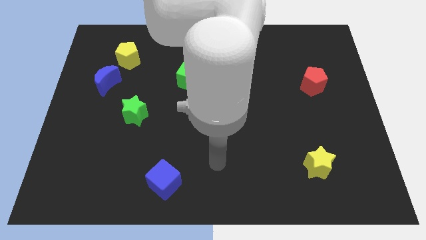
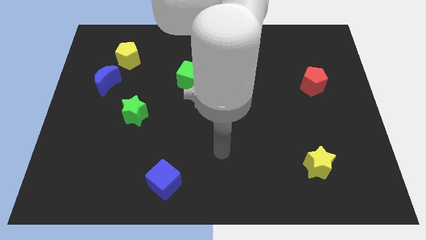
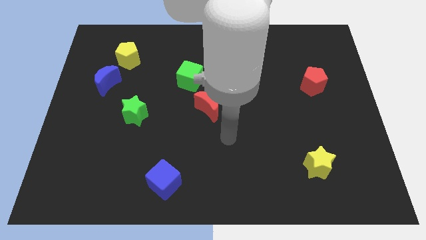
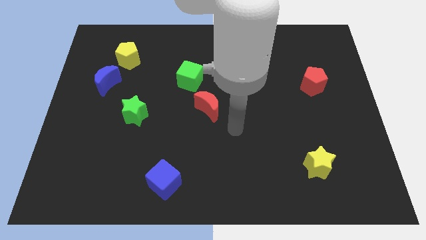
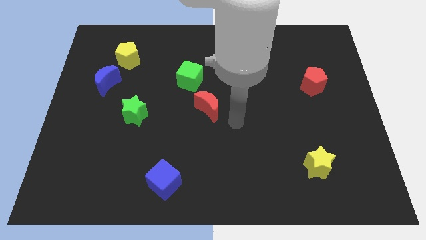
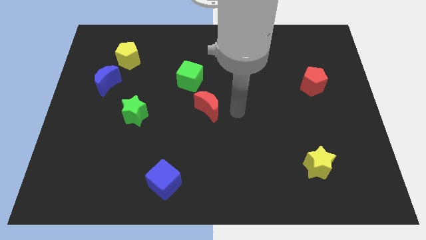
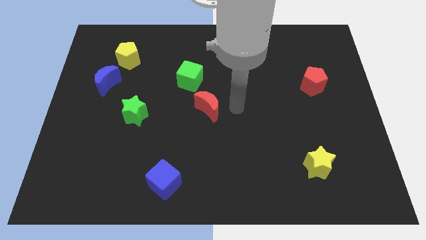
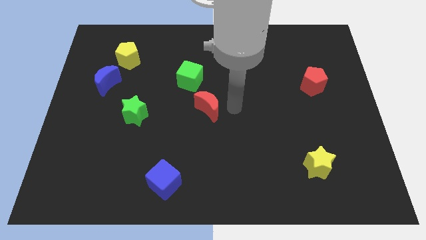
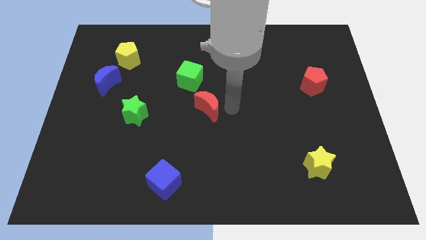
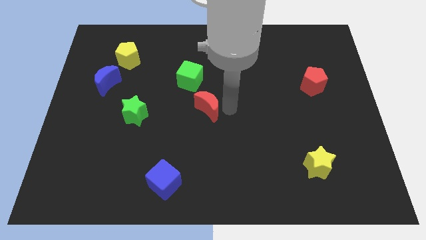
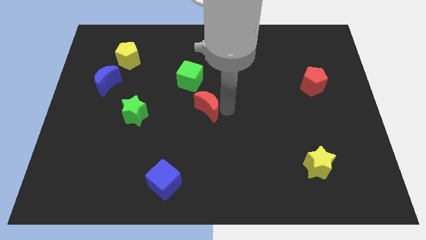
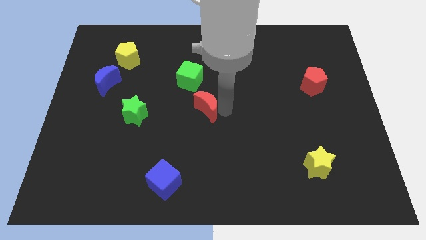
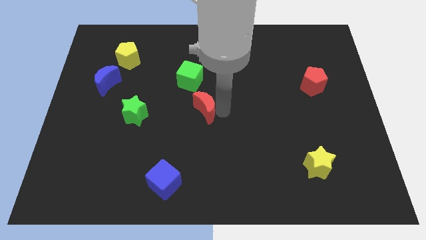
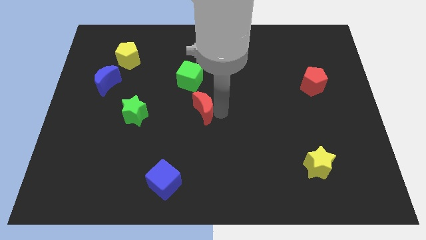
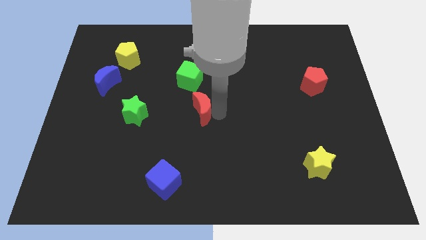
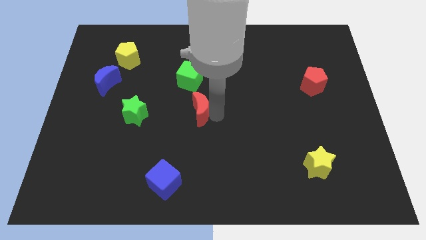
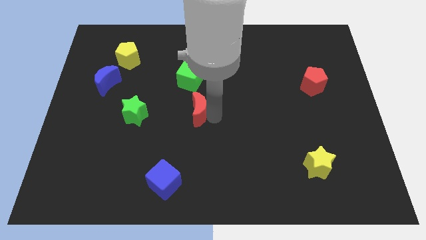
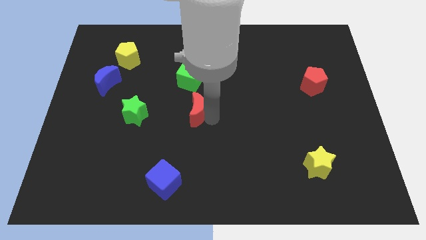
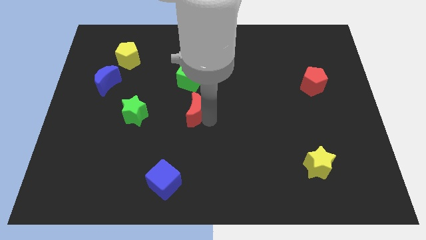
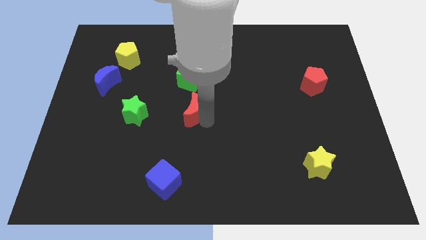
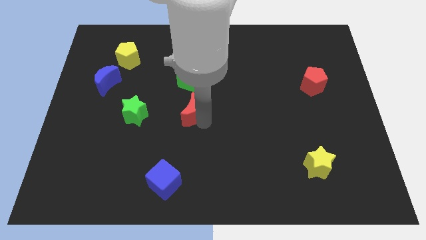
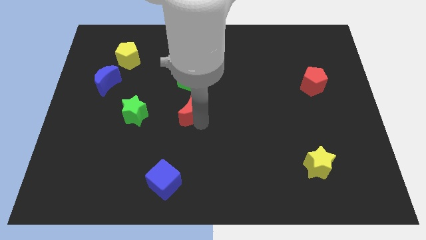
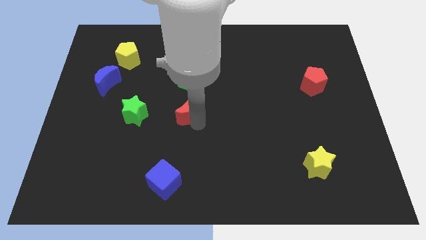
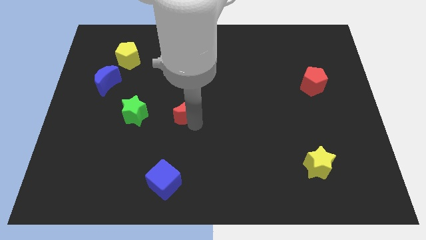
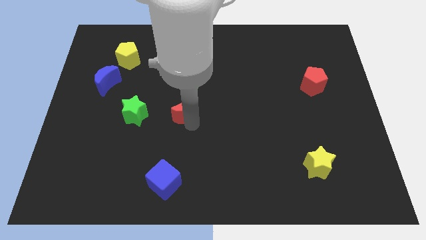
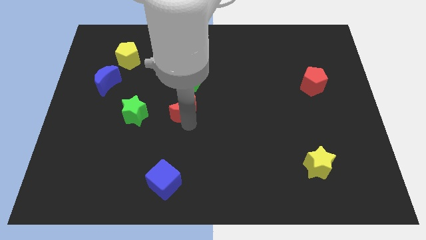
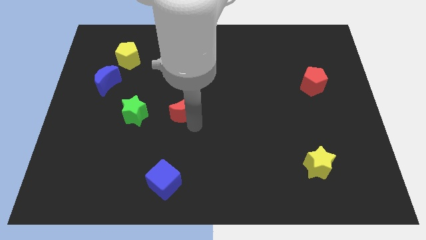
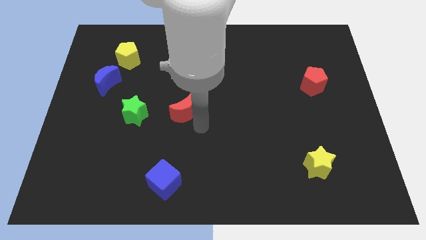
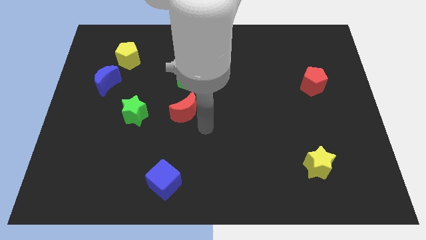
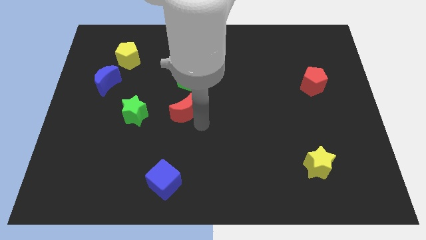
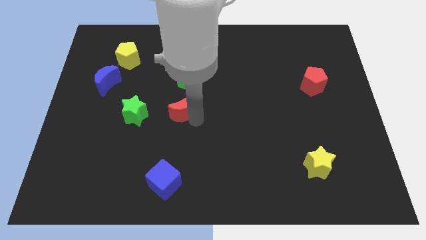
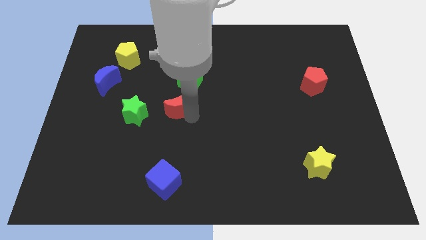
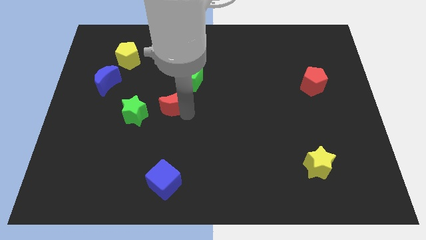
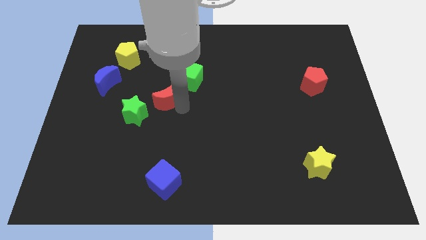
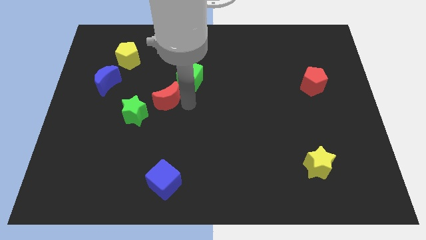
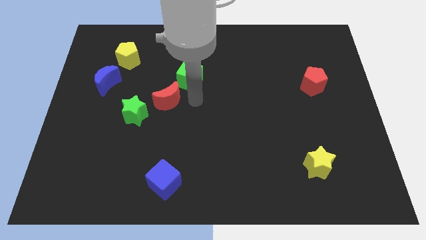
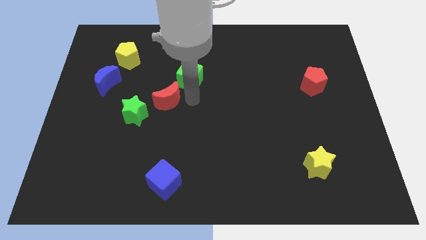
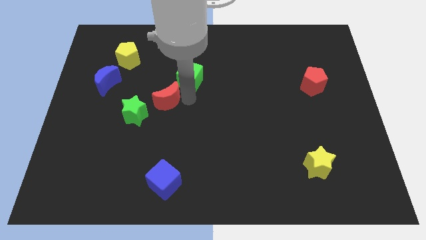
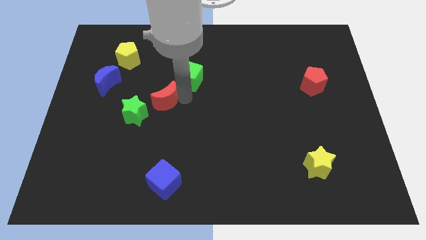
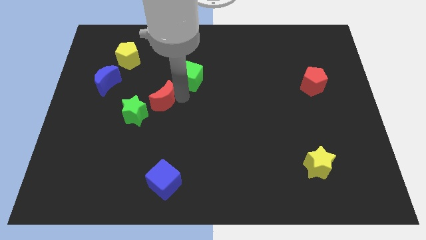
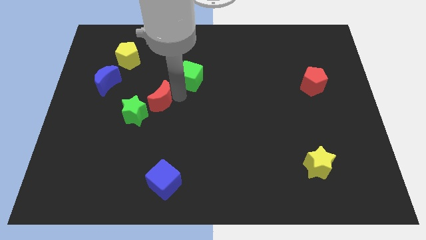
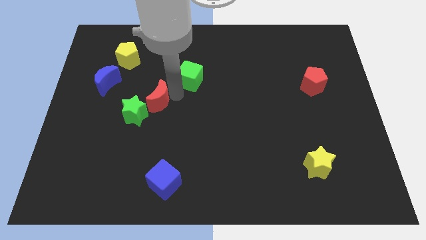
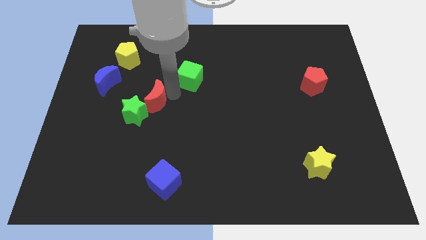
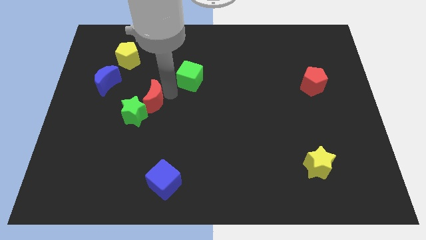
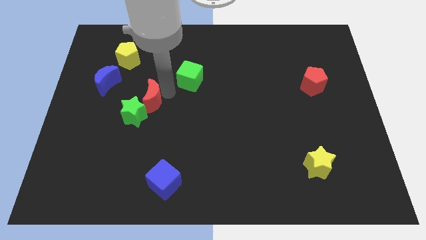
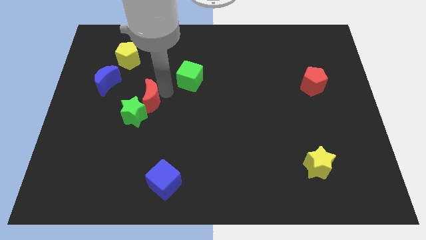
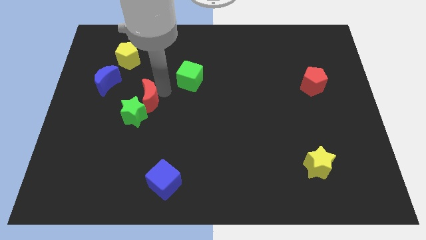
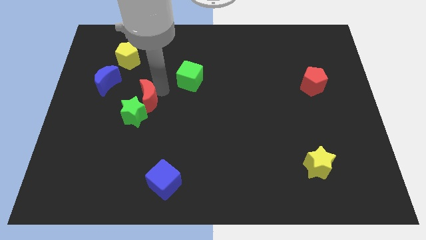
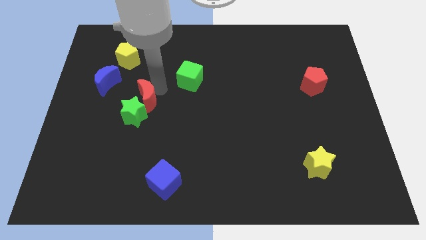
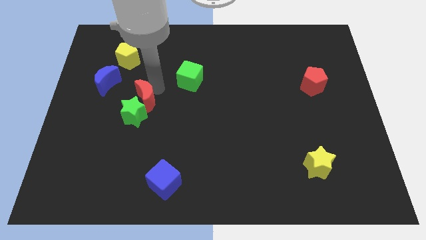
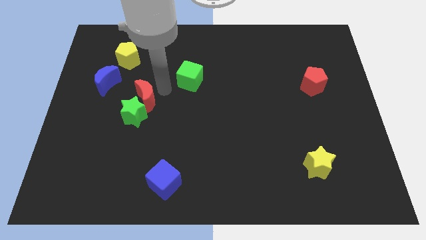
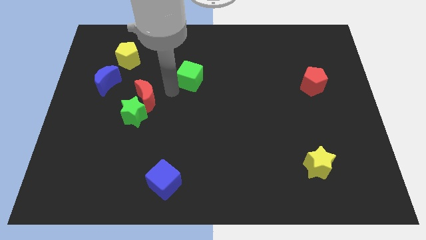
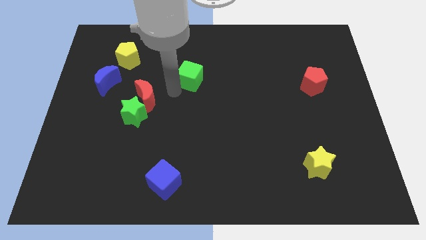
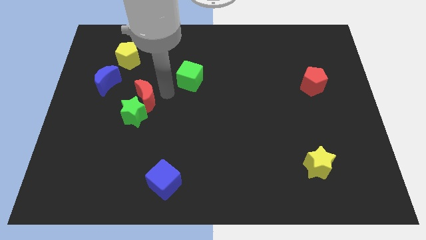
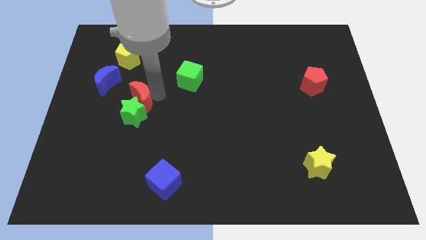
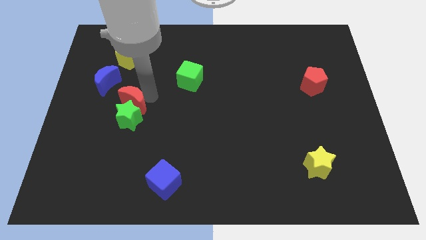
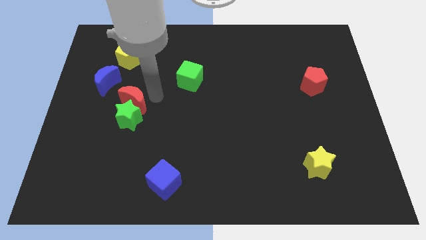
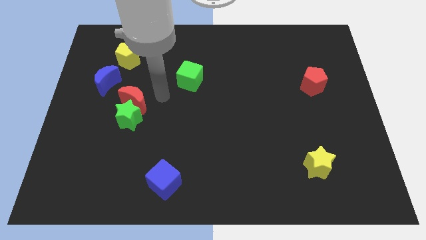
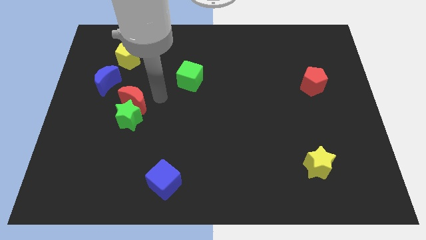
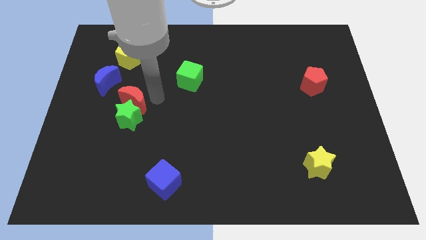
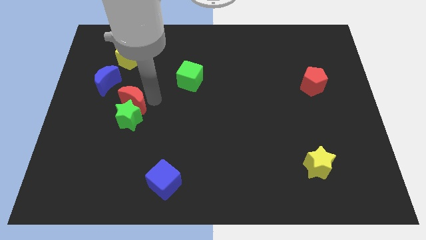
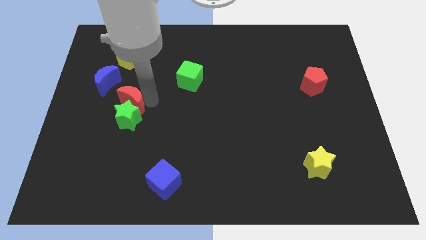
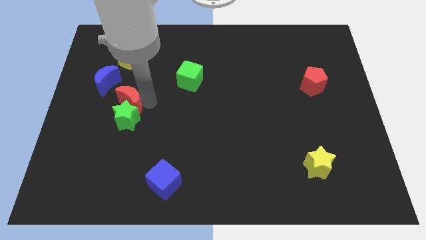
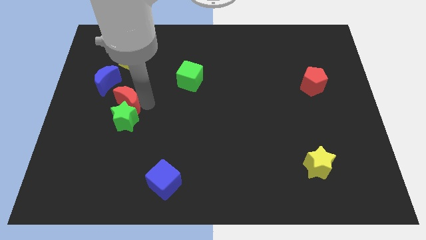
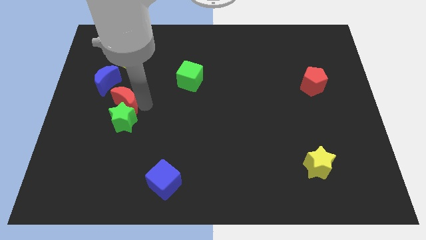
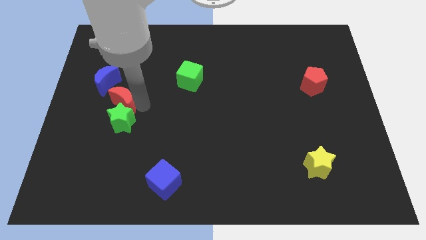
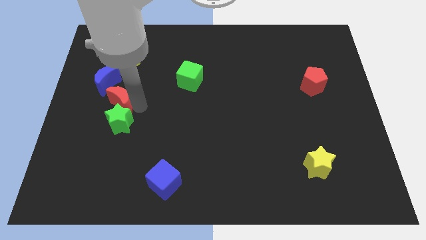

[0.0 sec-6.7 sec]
move the red moon below the blue moon

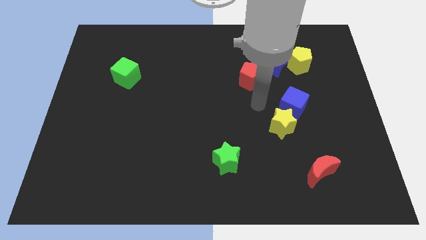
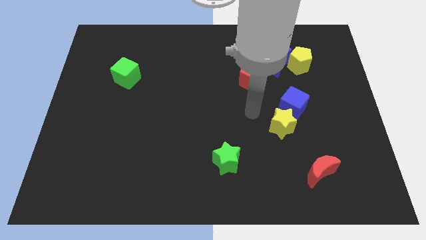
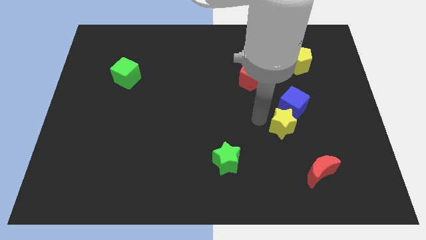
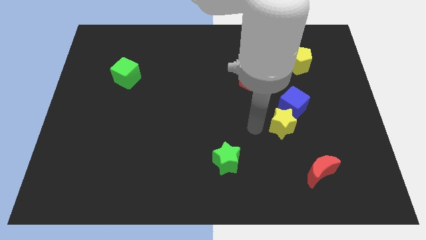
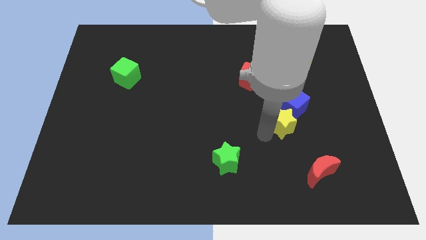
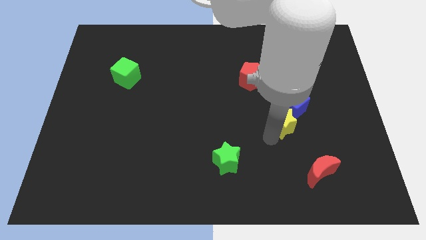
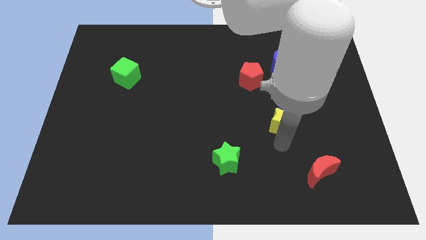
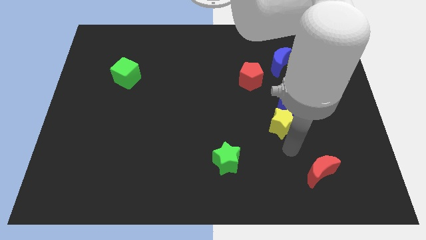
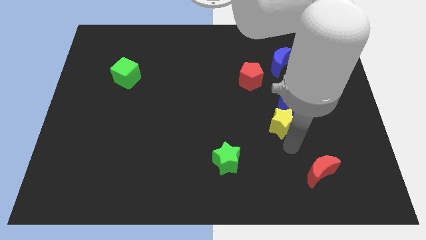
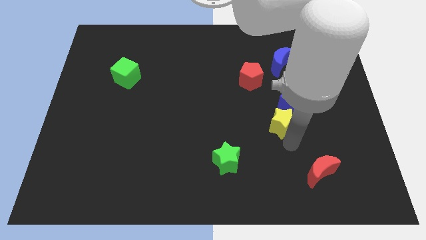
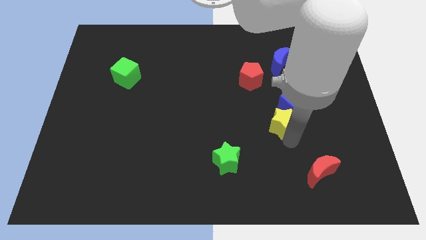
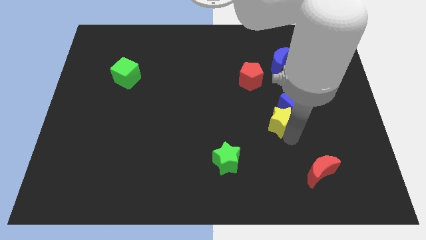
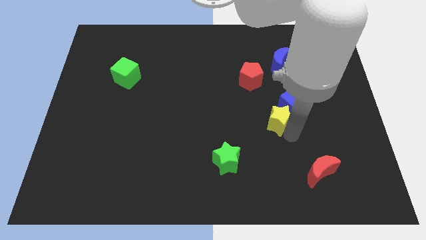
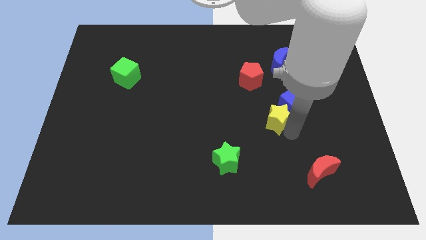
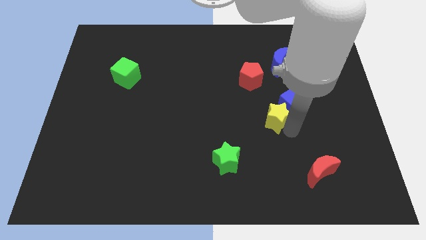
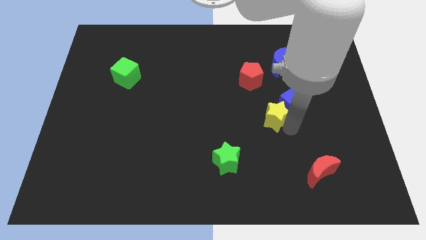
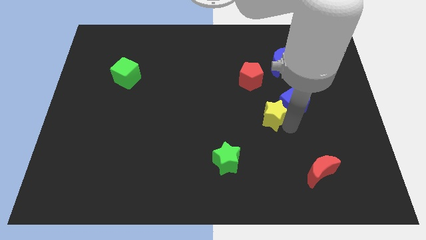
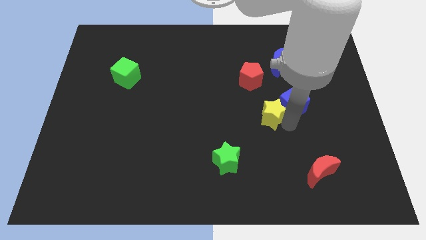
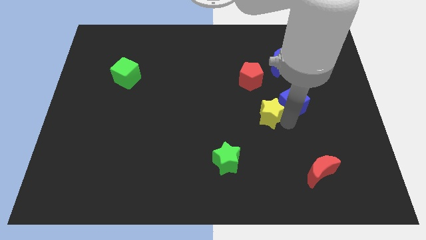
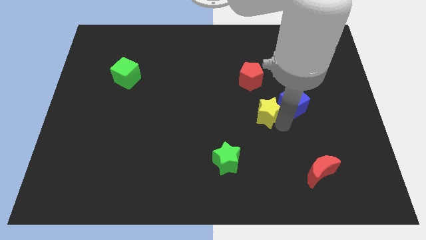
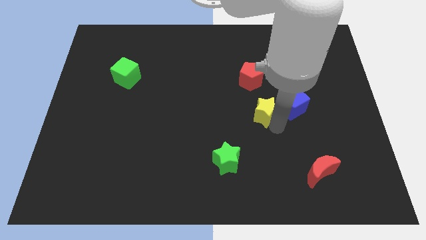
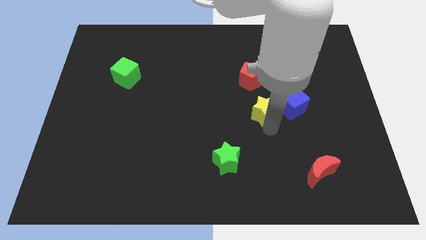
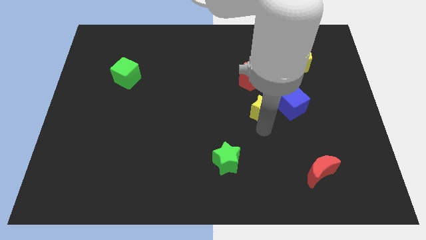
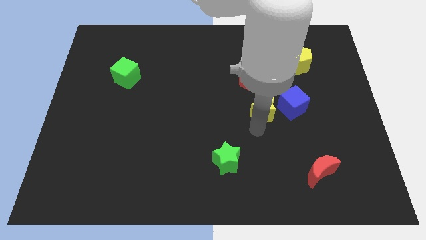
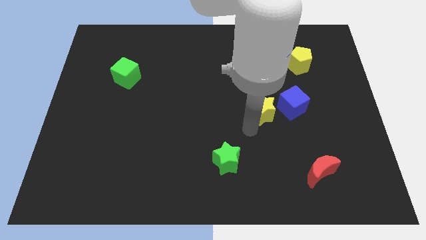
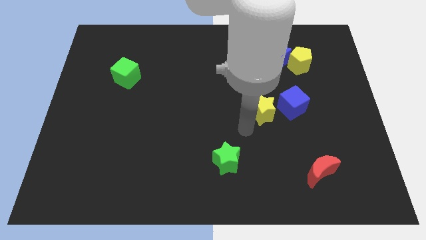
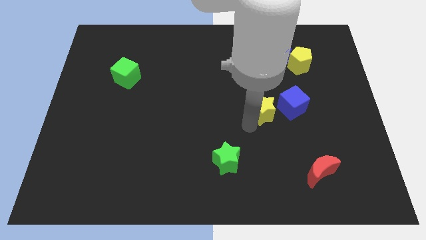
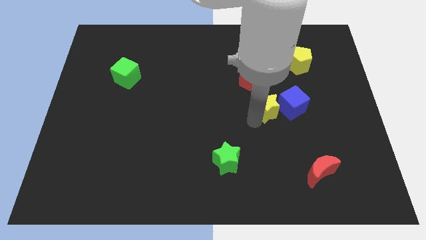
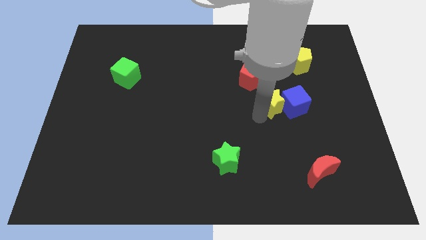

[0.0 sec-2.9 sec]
slide the yellow star to the bottom side of the blue moon
